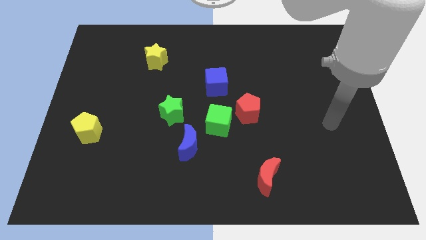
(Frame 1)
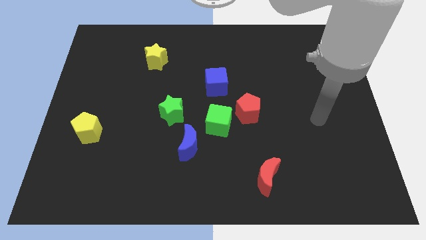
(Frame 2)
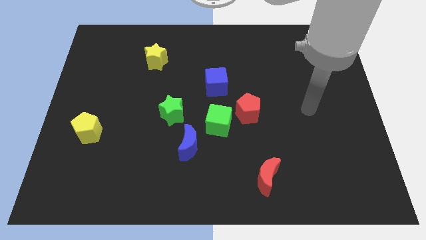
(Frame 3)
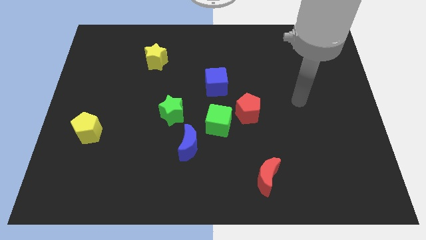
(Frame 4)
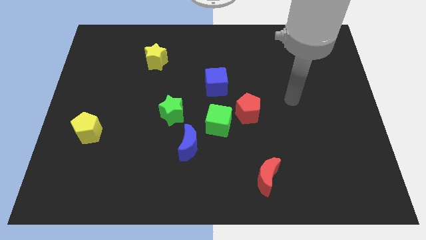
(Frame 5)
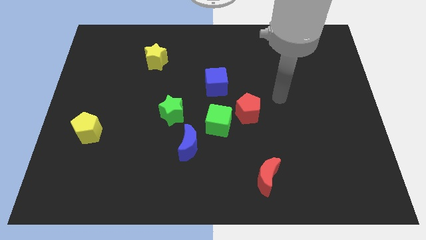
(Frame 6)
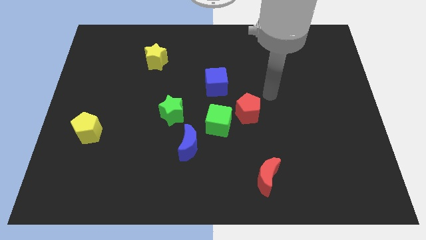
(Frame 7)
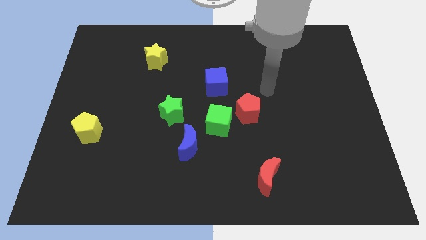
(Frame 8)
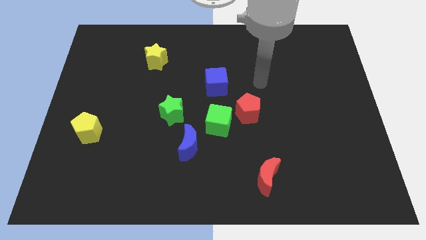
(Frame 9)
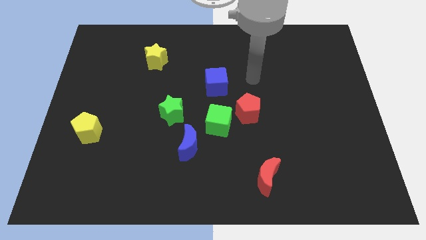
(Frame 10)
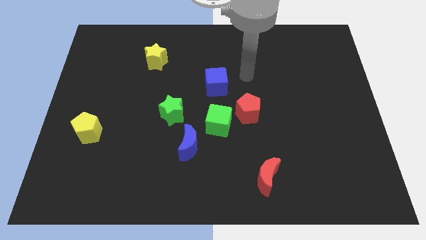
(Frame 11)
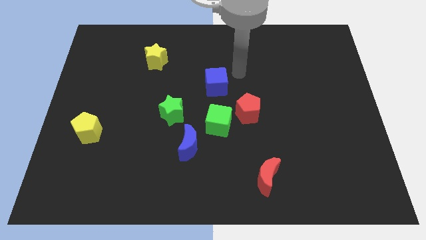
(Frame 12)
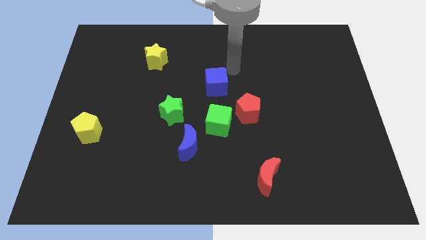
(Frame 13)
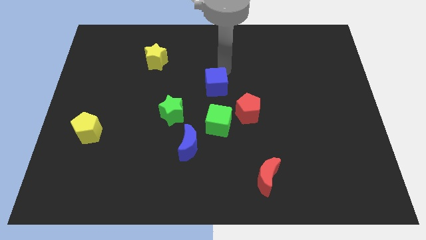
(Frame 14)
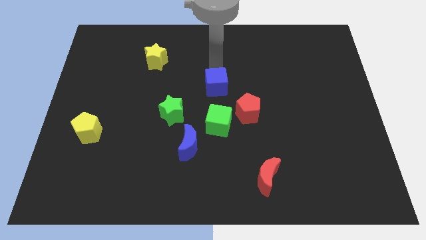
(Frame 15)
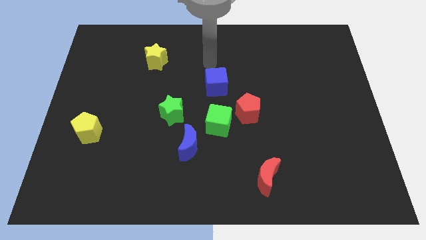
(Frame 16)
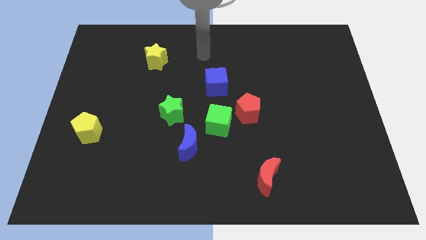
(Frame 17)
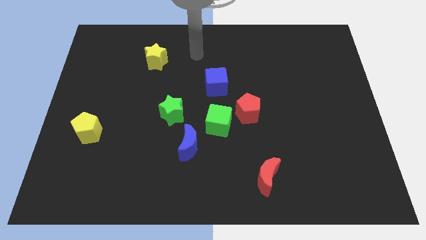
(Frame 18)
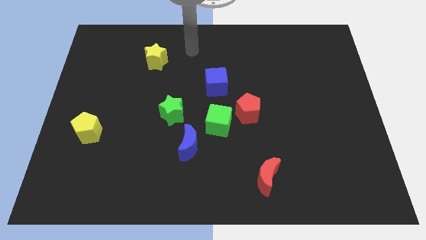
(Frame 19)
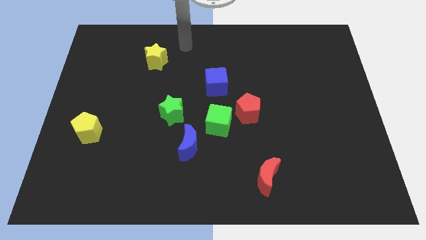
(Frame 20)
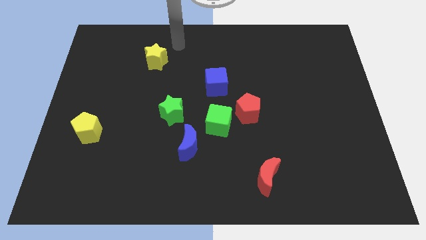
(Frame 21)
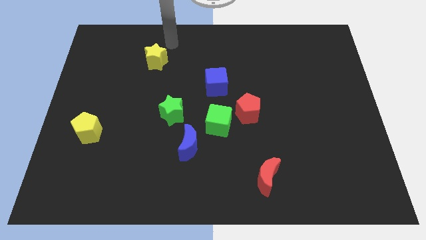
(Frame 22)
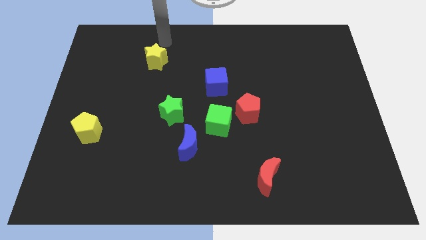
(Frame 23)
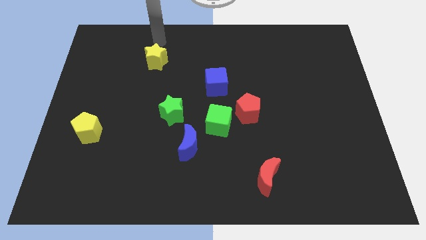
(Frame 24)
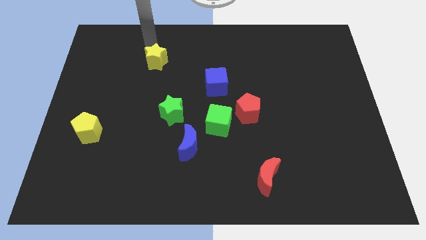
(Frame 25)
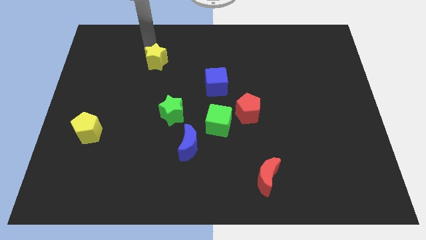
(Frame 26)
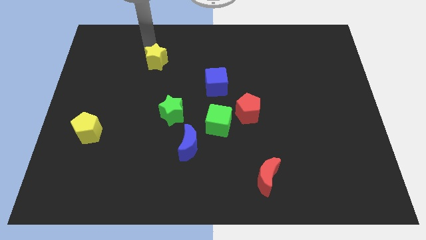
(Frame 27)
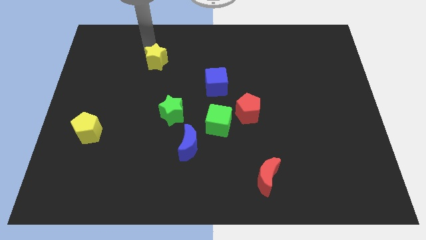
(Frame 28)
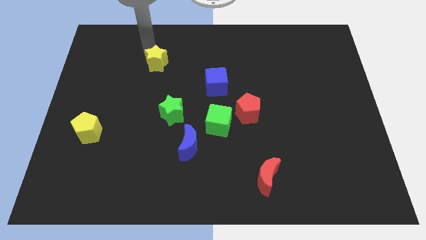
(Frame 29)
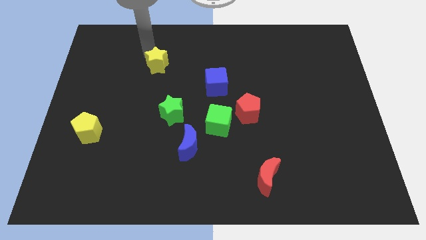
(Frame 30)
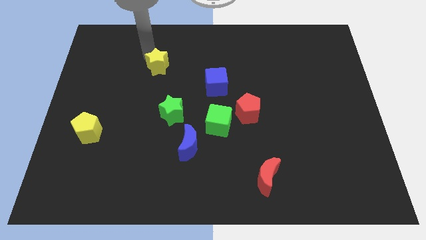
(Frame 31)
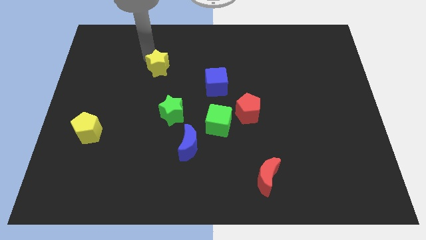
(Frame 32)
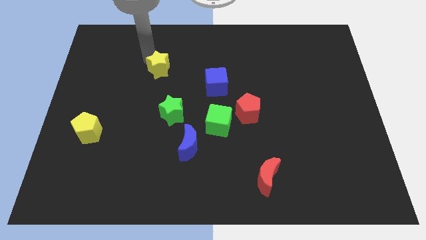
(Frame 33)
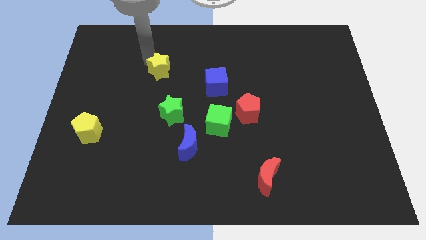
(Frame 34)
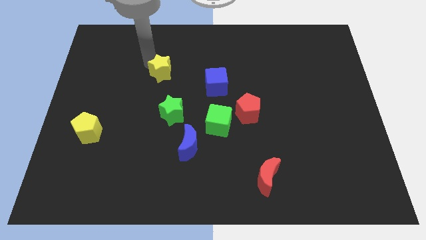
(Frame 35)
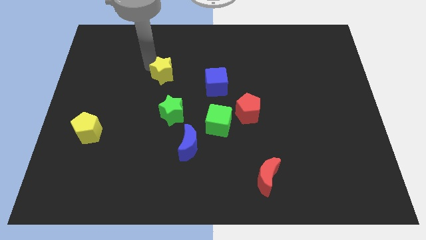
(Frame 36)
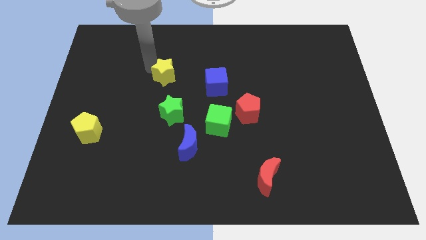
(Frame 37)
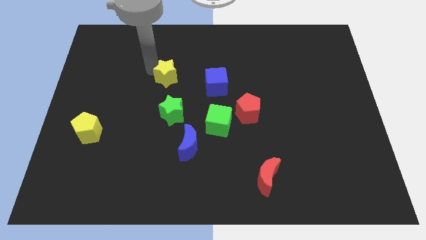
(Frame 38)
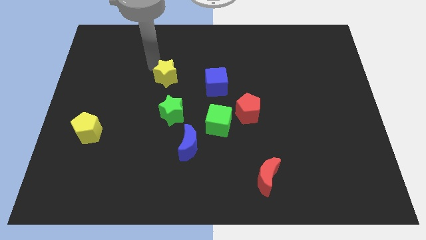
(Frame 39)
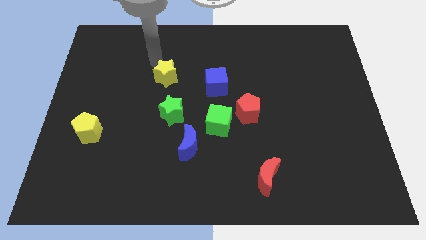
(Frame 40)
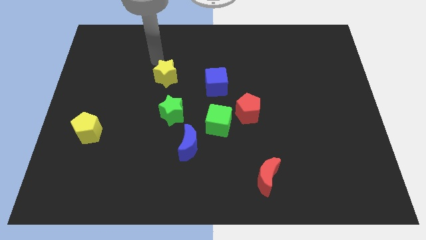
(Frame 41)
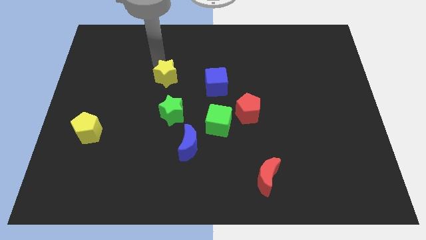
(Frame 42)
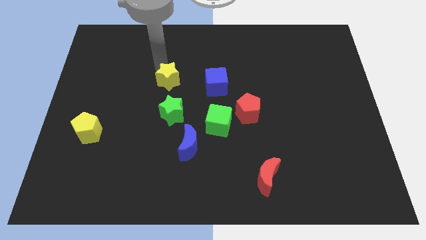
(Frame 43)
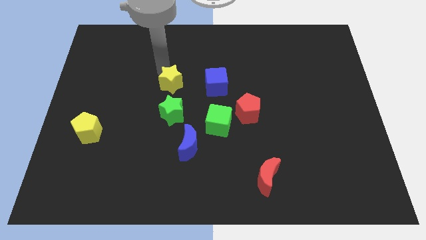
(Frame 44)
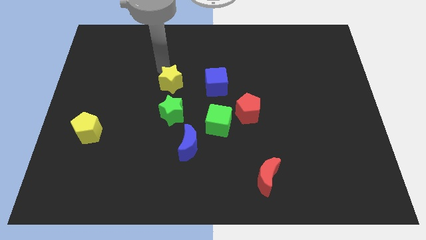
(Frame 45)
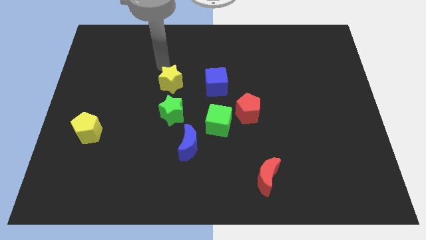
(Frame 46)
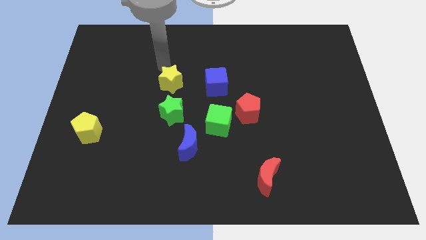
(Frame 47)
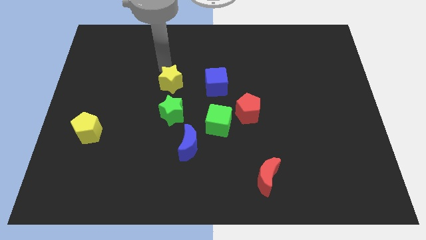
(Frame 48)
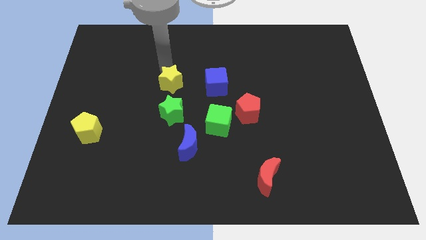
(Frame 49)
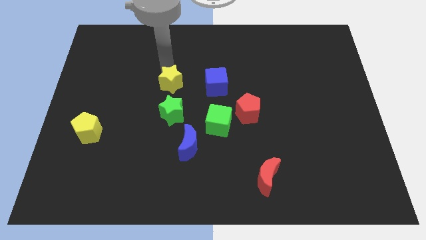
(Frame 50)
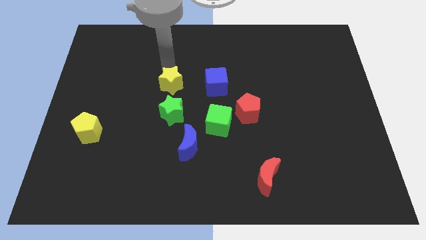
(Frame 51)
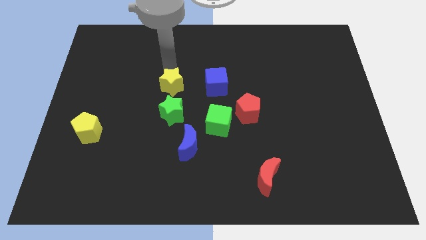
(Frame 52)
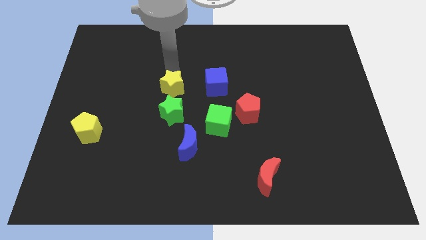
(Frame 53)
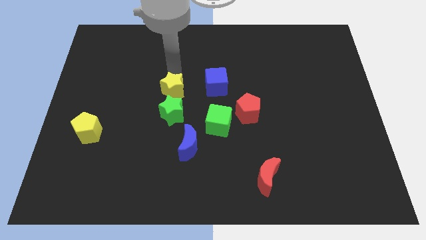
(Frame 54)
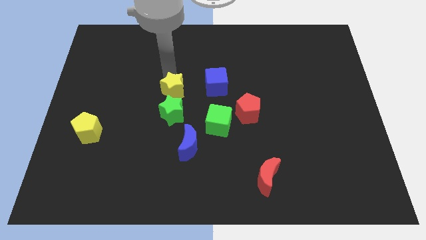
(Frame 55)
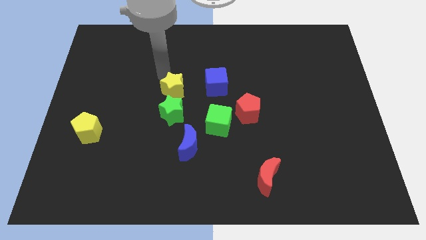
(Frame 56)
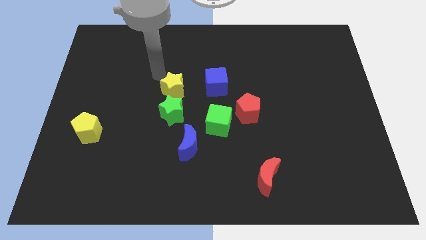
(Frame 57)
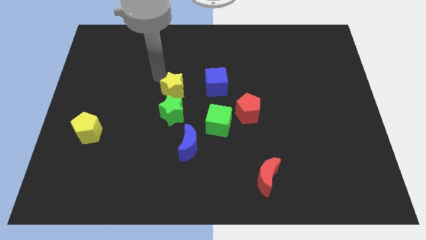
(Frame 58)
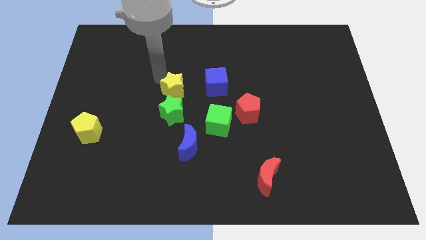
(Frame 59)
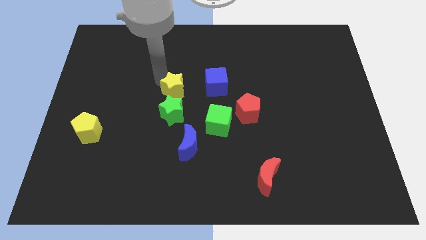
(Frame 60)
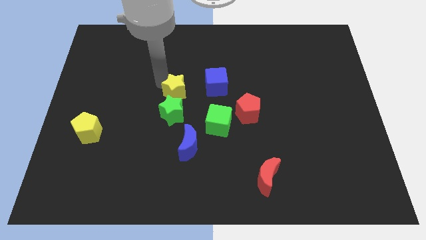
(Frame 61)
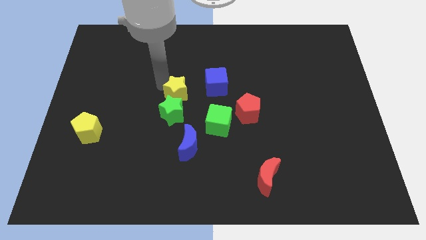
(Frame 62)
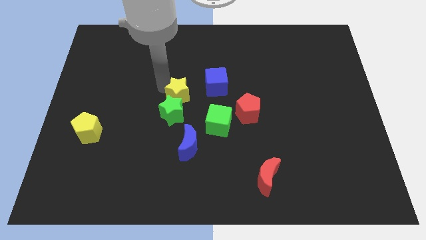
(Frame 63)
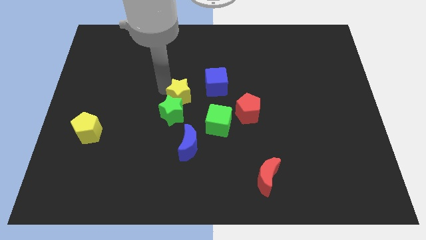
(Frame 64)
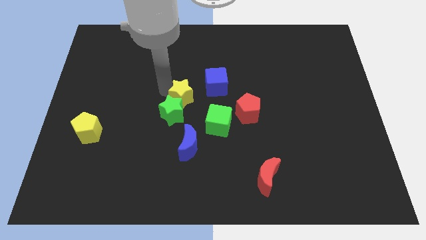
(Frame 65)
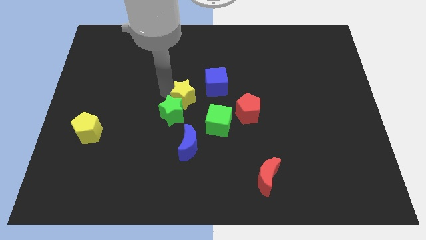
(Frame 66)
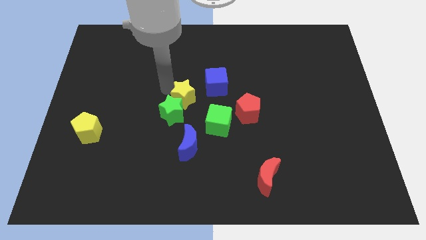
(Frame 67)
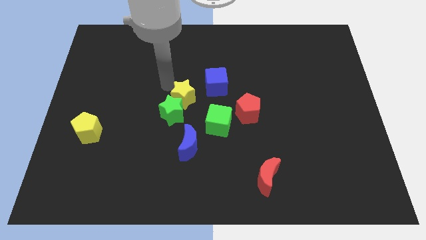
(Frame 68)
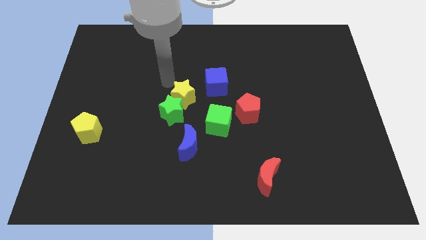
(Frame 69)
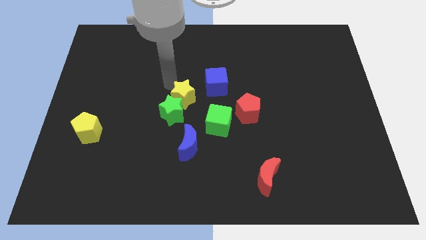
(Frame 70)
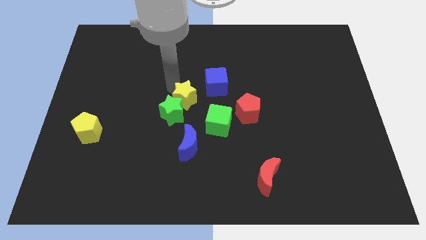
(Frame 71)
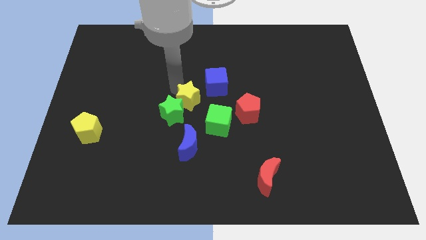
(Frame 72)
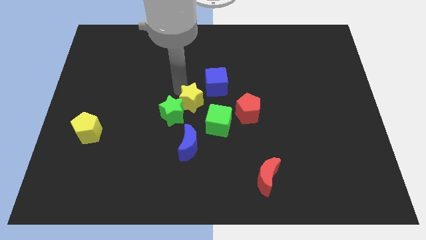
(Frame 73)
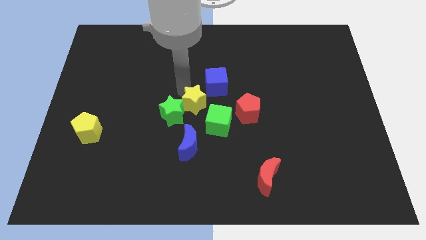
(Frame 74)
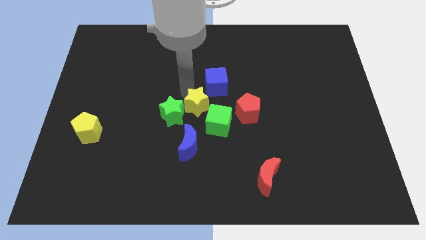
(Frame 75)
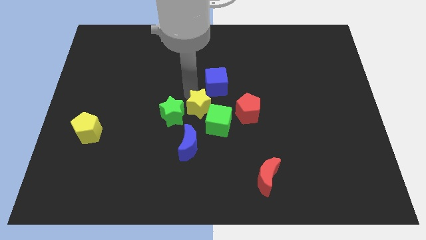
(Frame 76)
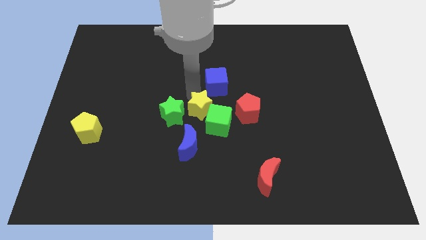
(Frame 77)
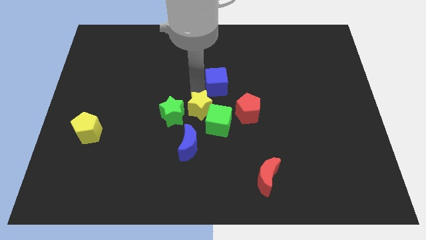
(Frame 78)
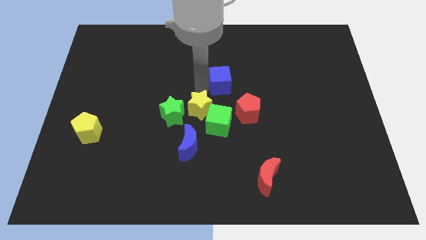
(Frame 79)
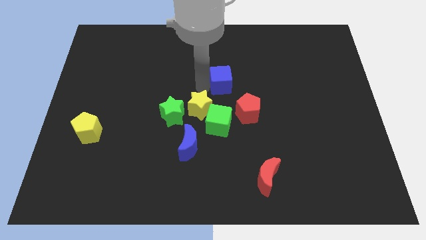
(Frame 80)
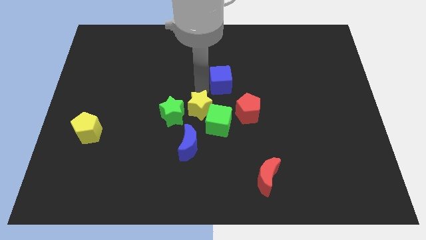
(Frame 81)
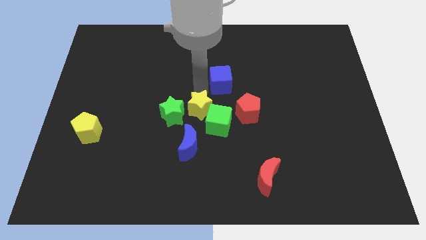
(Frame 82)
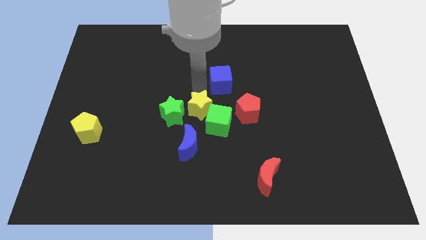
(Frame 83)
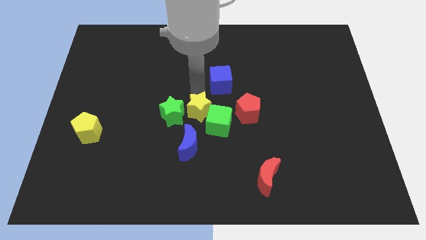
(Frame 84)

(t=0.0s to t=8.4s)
move the yellow star to the bottom right side of the green star
